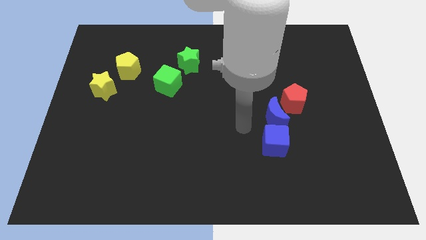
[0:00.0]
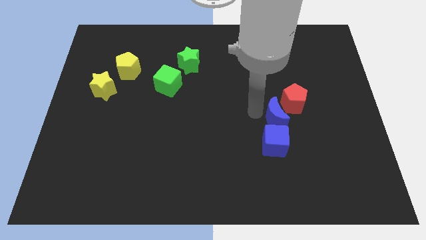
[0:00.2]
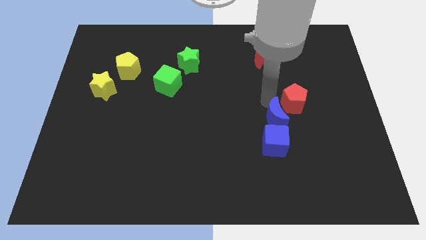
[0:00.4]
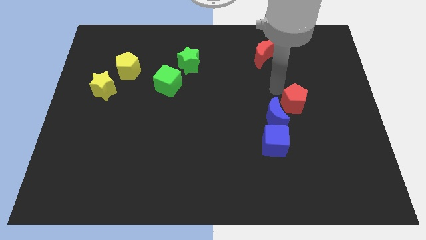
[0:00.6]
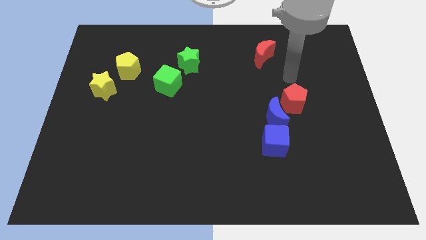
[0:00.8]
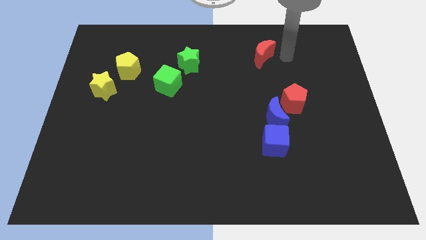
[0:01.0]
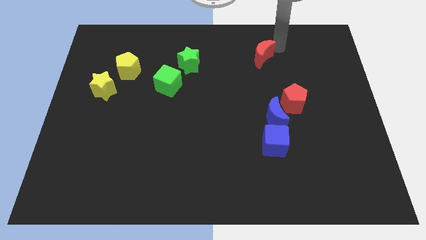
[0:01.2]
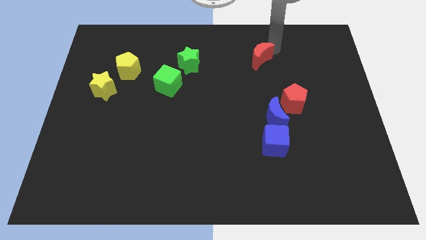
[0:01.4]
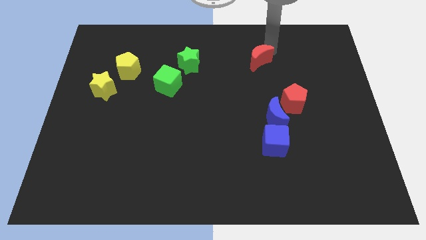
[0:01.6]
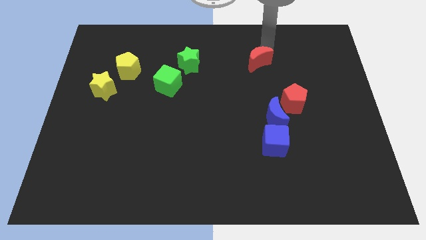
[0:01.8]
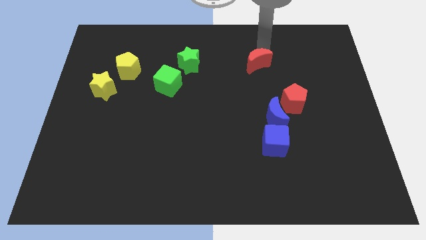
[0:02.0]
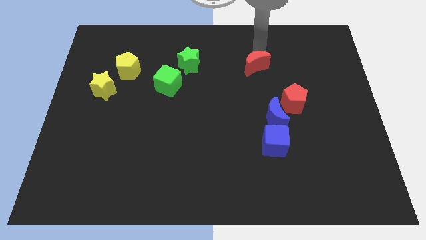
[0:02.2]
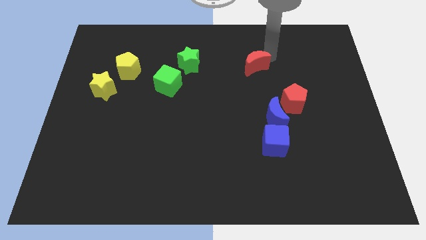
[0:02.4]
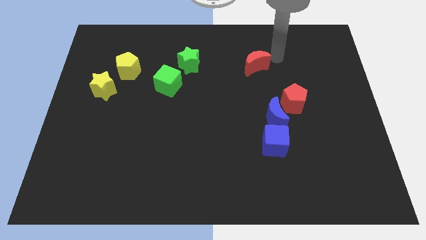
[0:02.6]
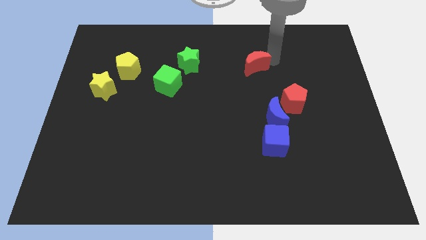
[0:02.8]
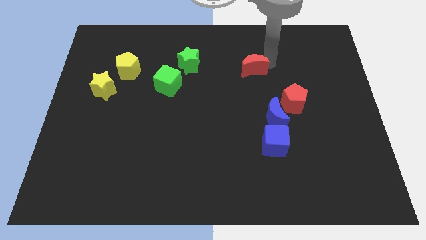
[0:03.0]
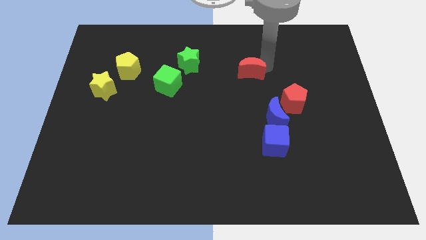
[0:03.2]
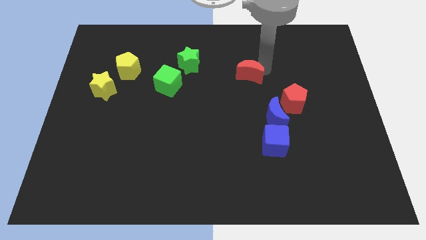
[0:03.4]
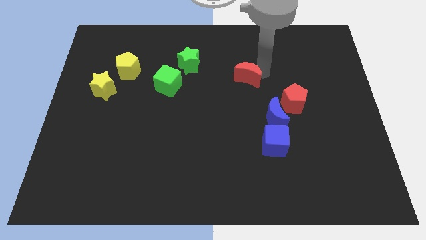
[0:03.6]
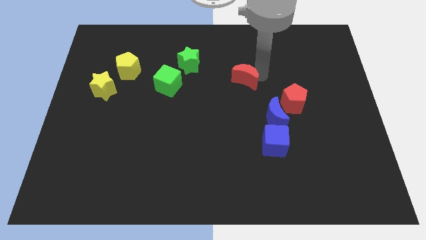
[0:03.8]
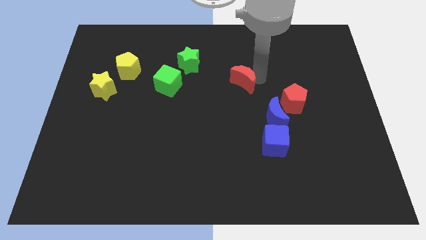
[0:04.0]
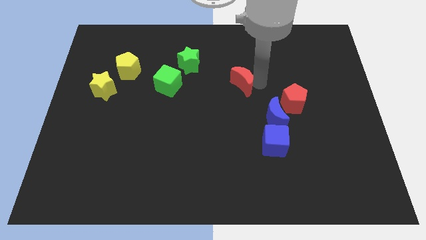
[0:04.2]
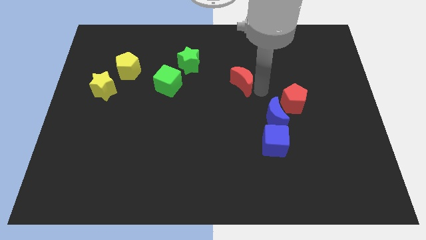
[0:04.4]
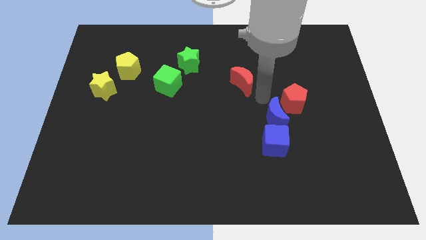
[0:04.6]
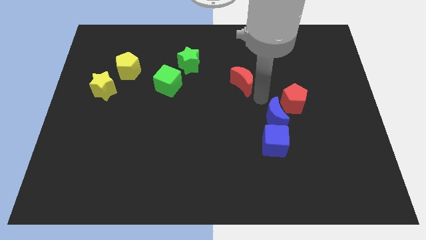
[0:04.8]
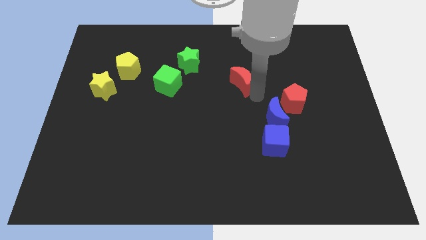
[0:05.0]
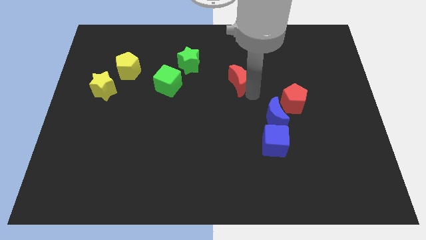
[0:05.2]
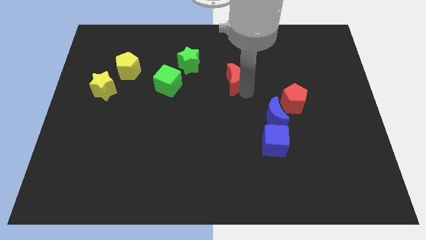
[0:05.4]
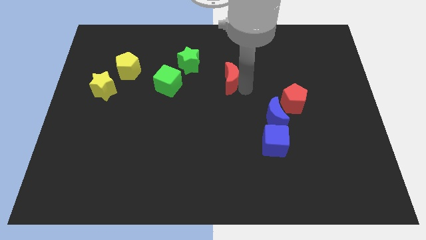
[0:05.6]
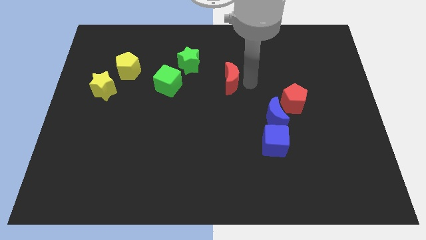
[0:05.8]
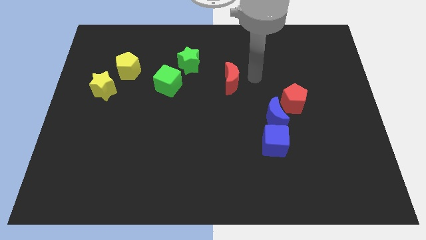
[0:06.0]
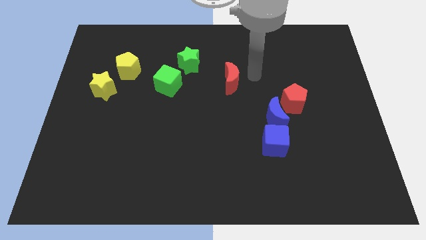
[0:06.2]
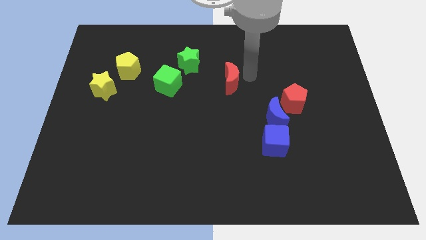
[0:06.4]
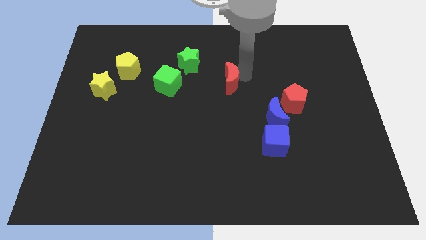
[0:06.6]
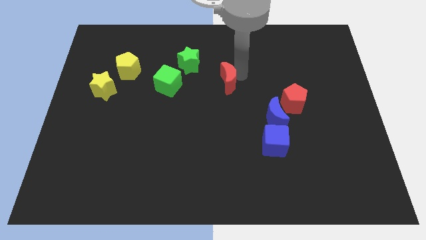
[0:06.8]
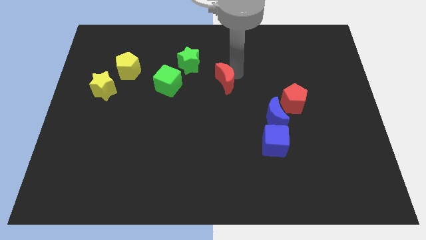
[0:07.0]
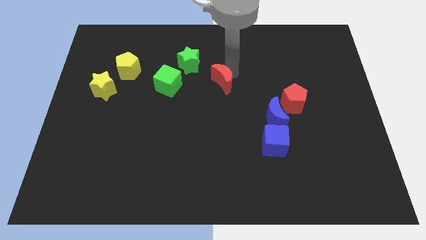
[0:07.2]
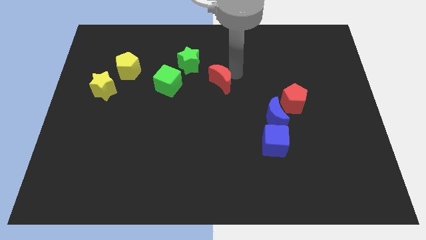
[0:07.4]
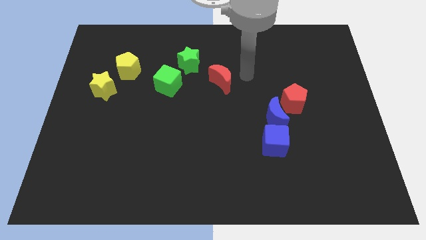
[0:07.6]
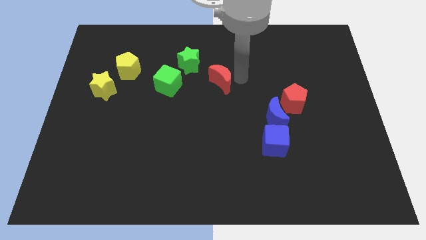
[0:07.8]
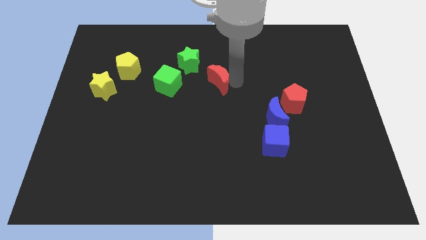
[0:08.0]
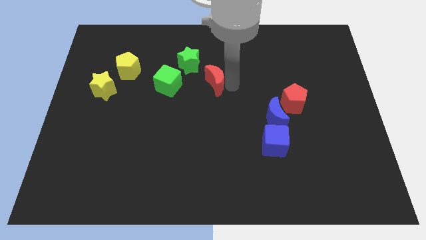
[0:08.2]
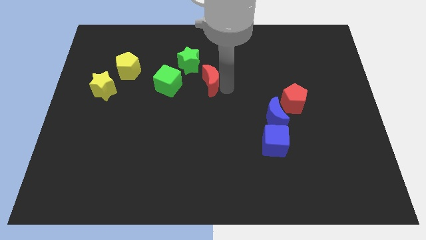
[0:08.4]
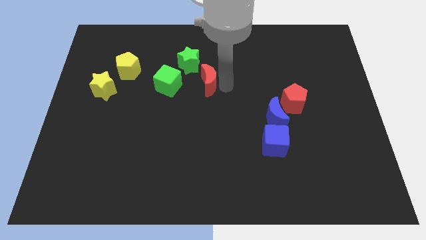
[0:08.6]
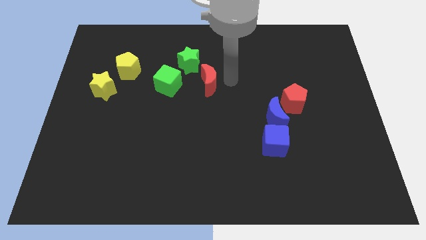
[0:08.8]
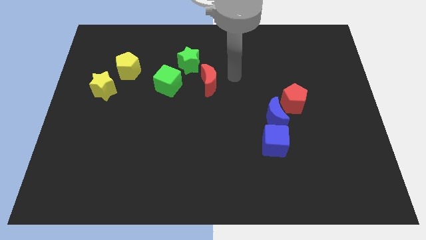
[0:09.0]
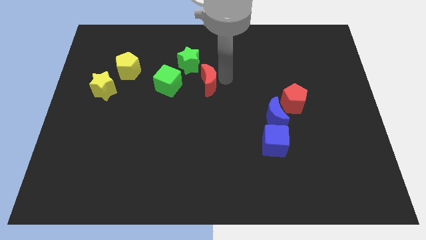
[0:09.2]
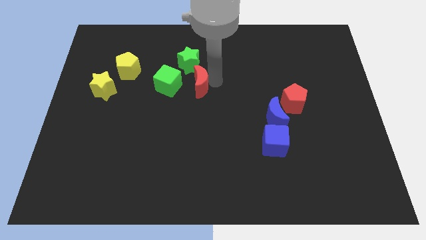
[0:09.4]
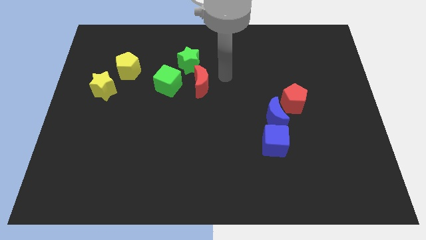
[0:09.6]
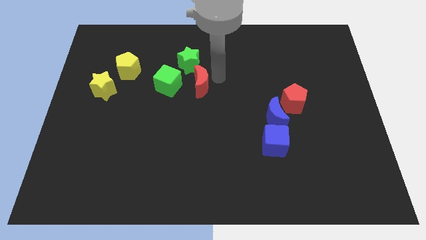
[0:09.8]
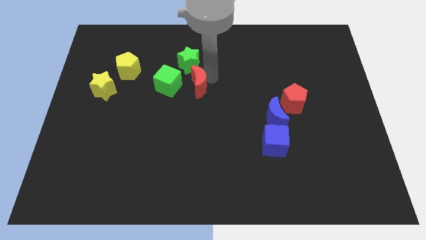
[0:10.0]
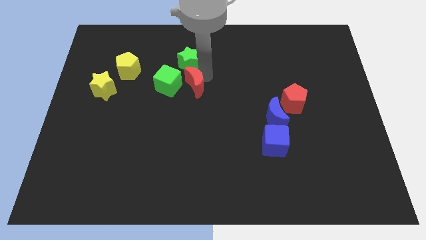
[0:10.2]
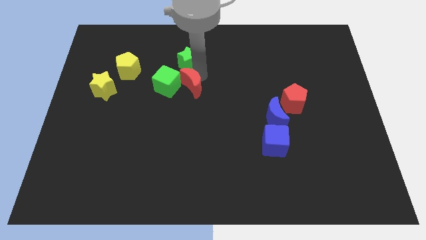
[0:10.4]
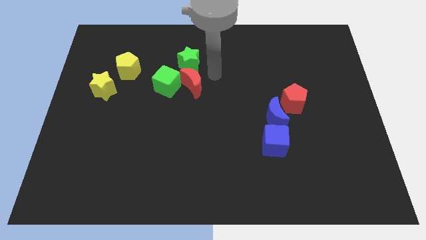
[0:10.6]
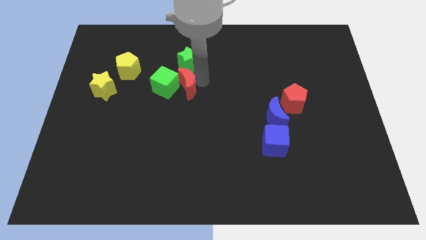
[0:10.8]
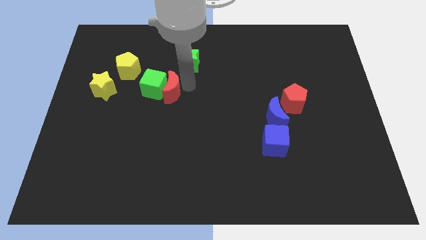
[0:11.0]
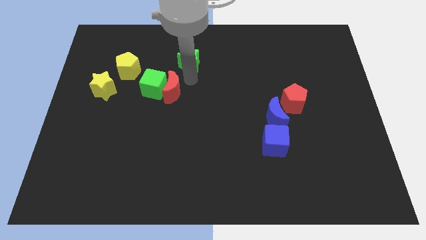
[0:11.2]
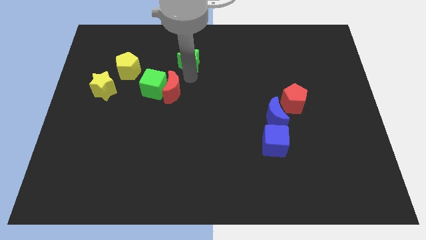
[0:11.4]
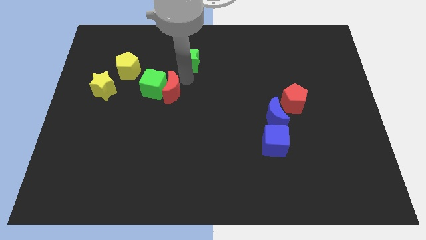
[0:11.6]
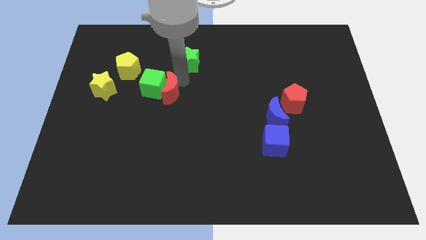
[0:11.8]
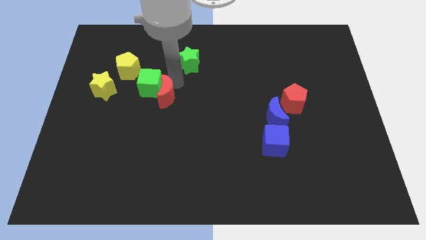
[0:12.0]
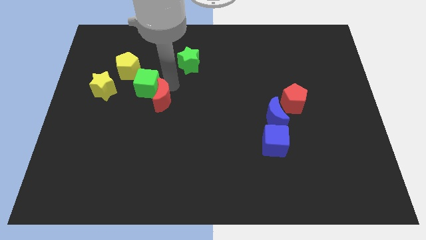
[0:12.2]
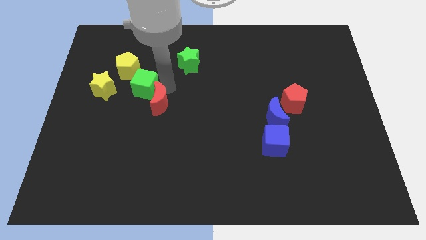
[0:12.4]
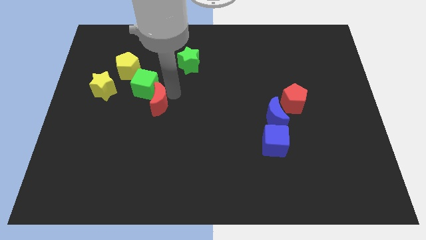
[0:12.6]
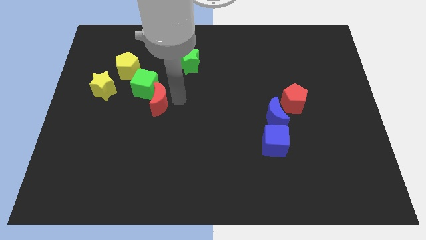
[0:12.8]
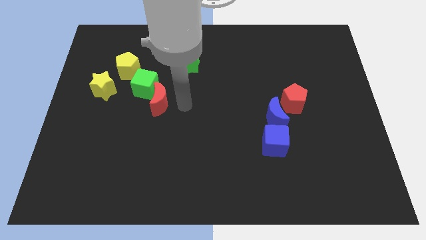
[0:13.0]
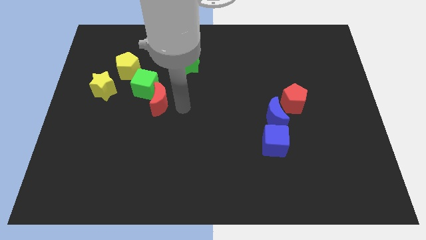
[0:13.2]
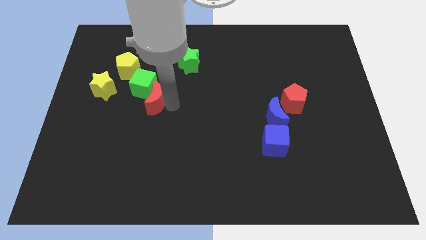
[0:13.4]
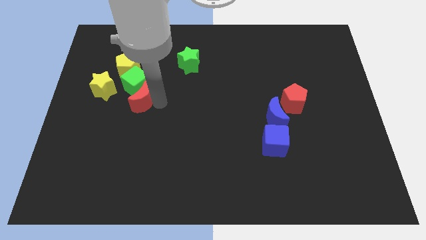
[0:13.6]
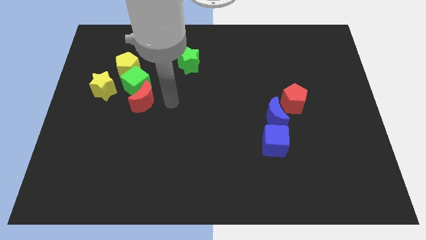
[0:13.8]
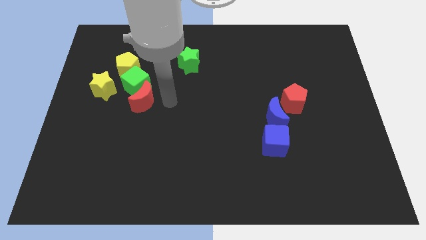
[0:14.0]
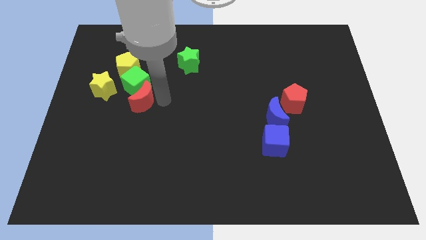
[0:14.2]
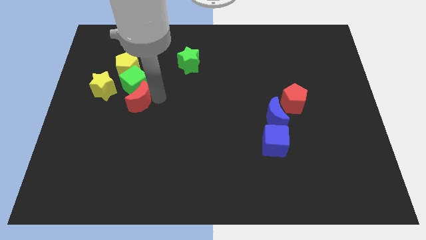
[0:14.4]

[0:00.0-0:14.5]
push the red moon to the bottom of the yellow pentagon

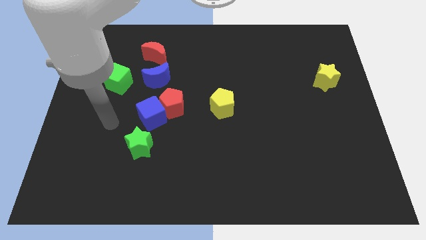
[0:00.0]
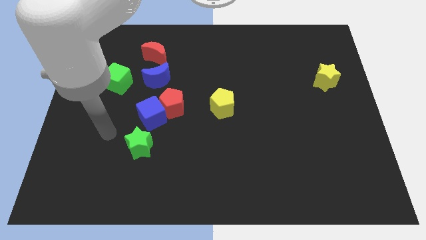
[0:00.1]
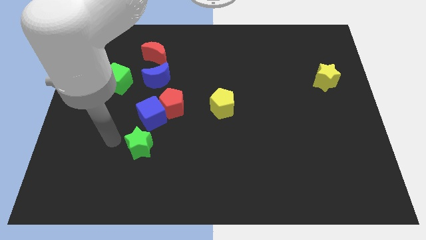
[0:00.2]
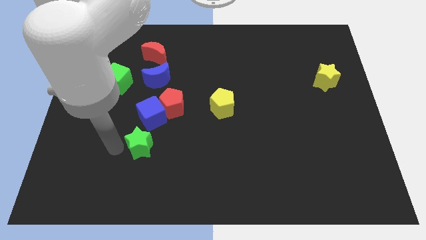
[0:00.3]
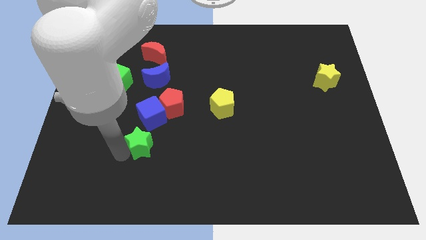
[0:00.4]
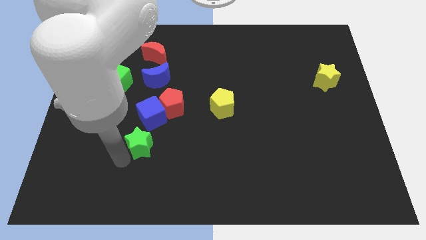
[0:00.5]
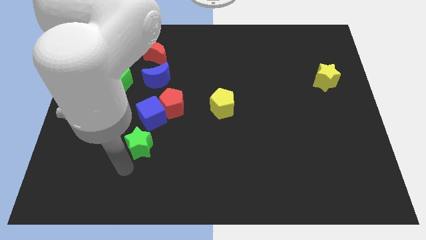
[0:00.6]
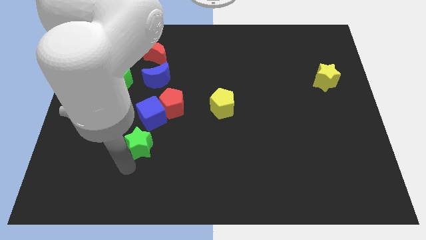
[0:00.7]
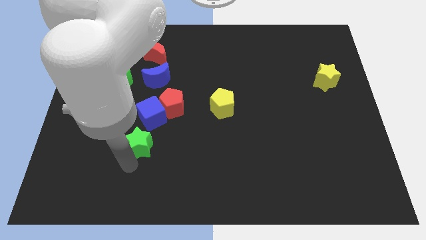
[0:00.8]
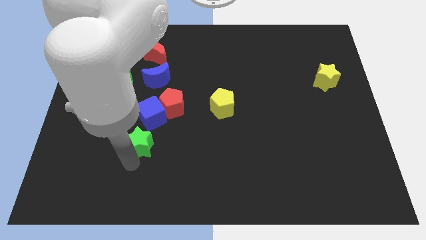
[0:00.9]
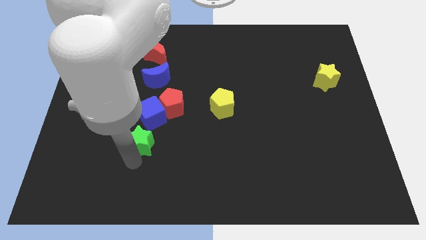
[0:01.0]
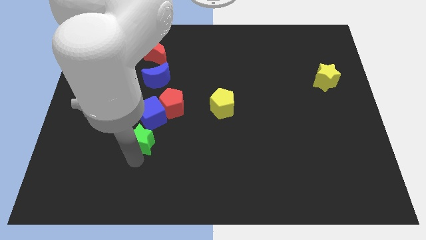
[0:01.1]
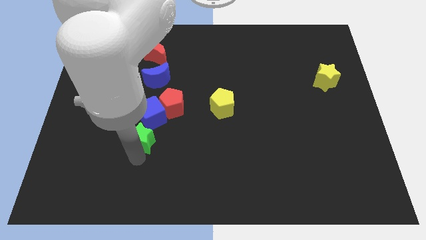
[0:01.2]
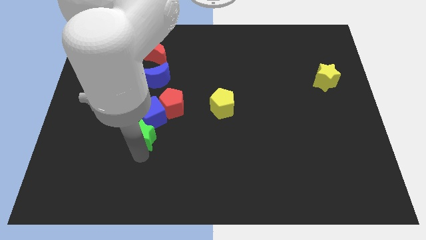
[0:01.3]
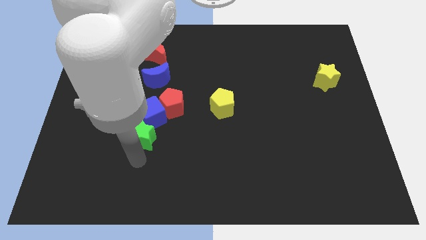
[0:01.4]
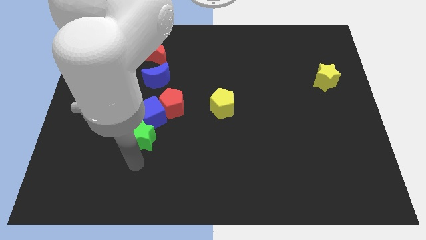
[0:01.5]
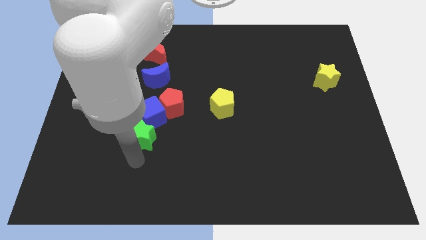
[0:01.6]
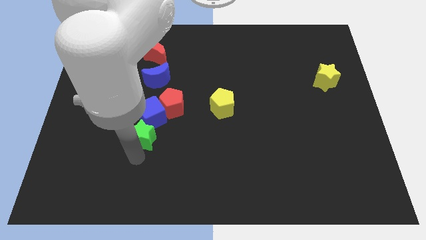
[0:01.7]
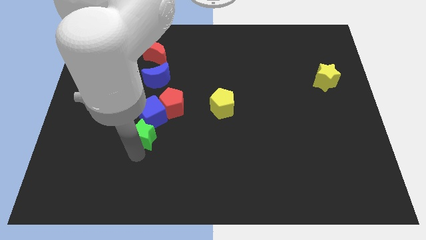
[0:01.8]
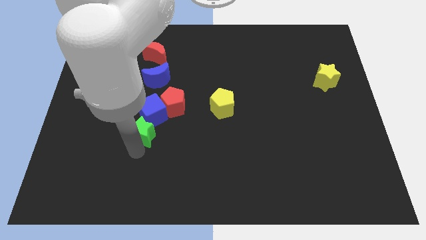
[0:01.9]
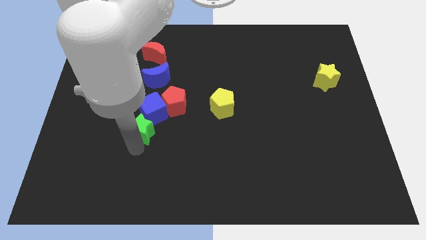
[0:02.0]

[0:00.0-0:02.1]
push the green star to the bottom side of the blue moon
